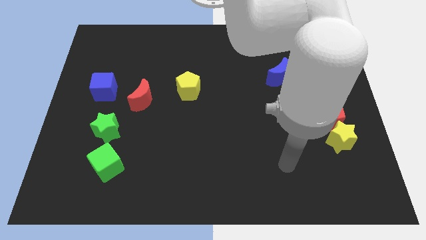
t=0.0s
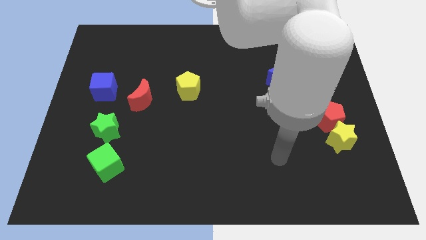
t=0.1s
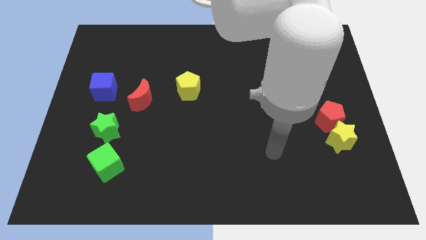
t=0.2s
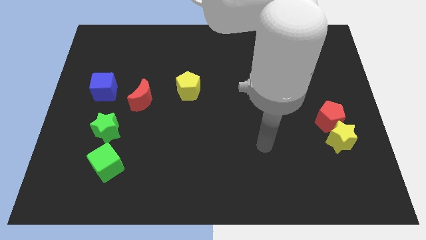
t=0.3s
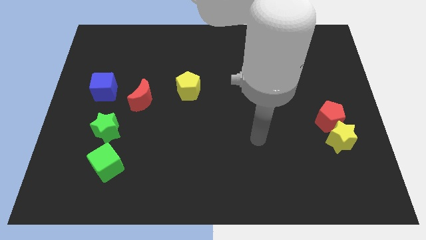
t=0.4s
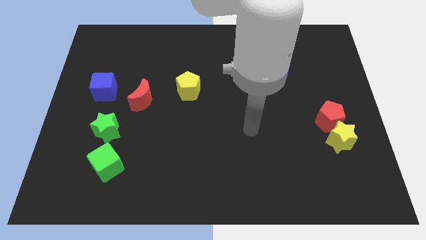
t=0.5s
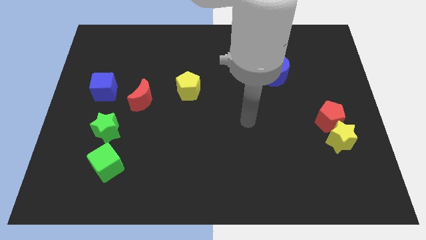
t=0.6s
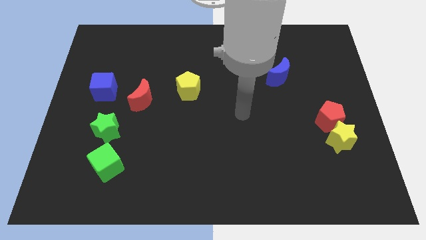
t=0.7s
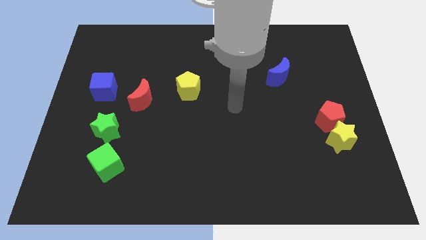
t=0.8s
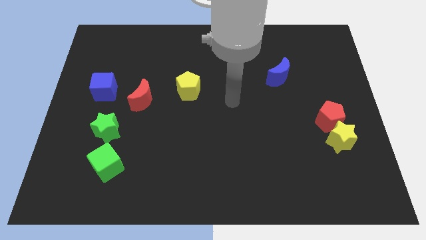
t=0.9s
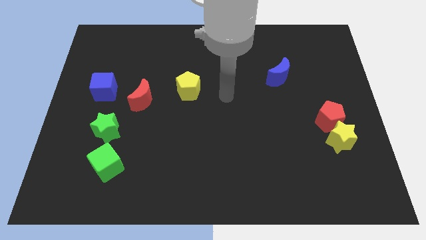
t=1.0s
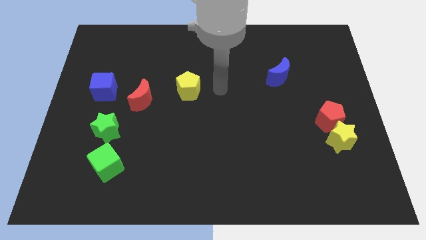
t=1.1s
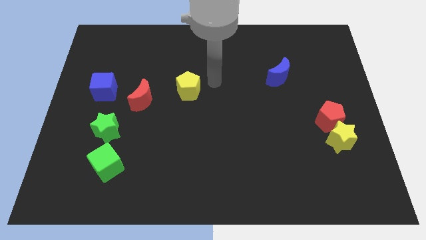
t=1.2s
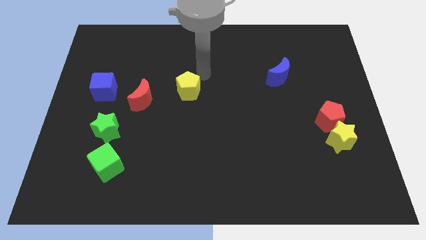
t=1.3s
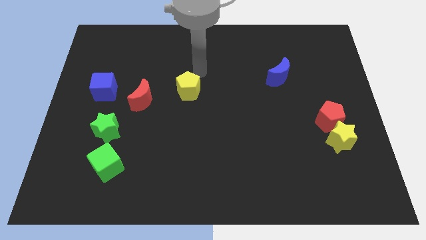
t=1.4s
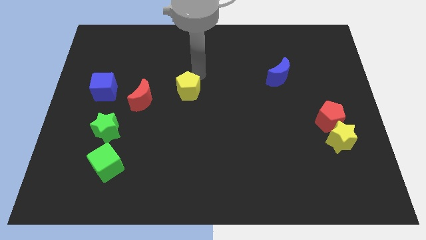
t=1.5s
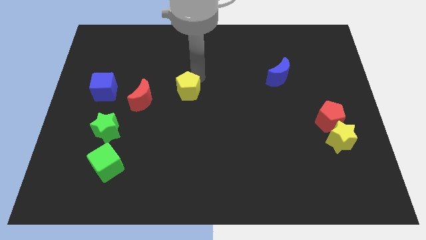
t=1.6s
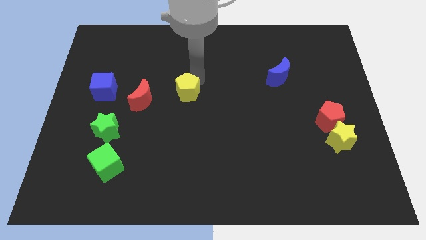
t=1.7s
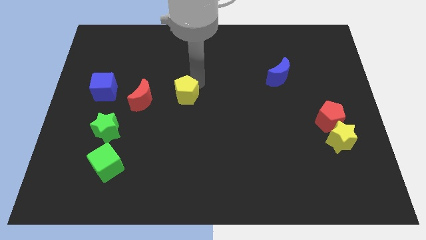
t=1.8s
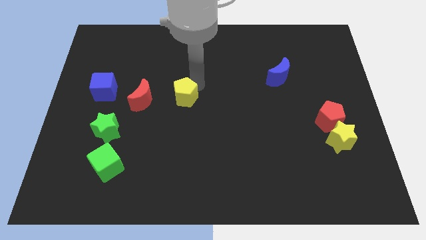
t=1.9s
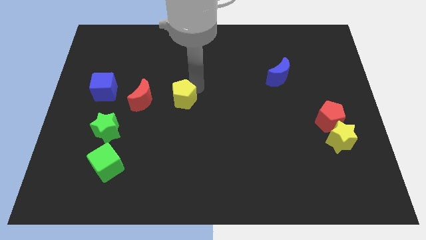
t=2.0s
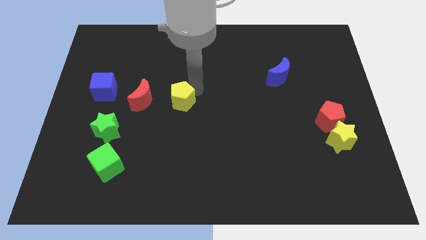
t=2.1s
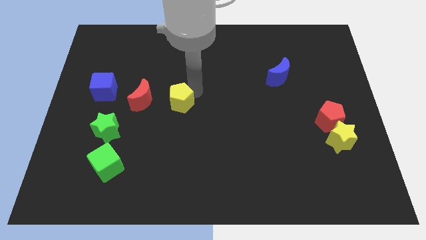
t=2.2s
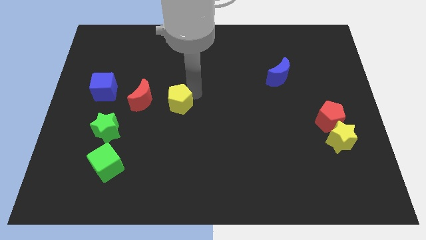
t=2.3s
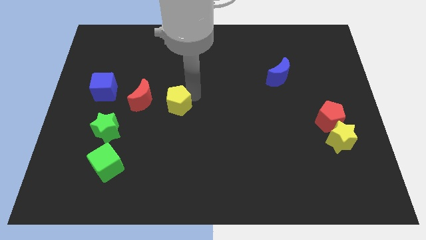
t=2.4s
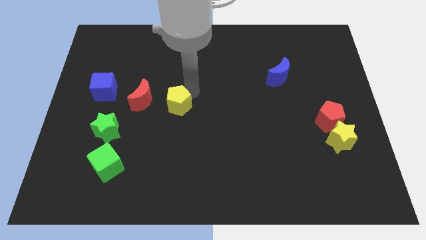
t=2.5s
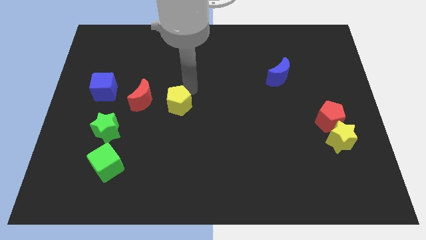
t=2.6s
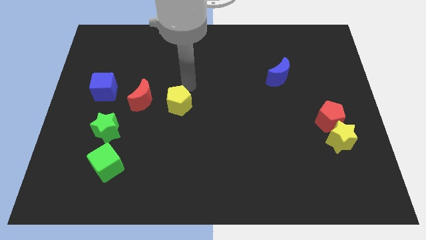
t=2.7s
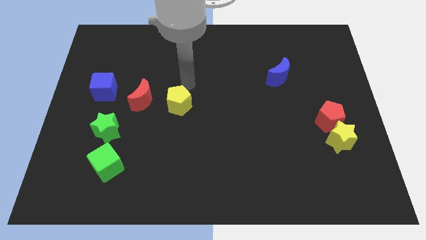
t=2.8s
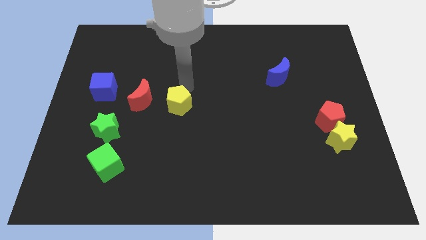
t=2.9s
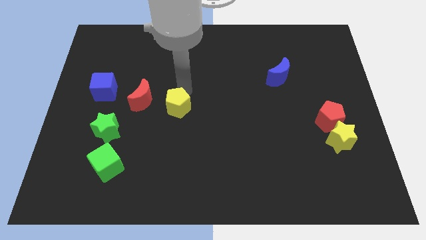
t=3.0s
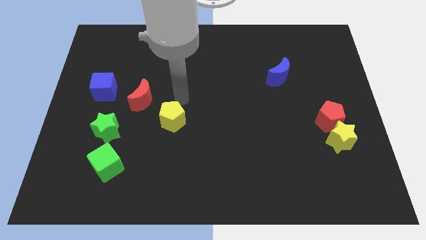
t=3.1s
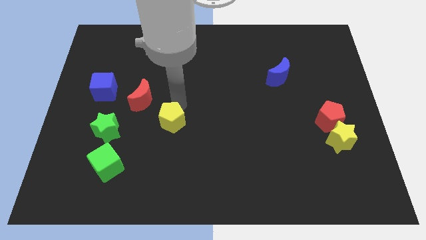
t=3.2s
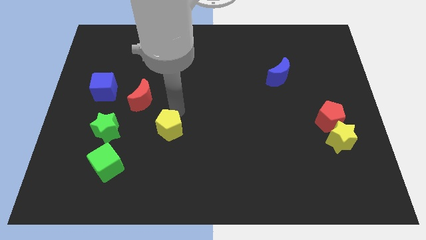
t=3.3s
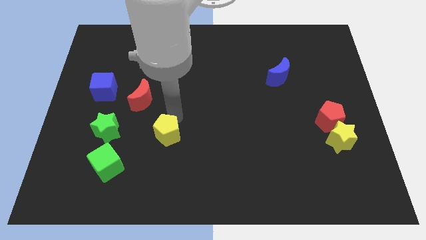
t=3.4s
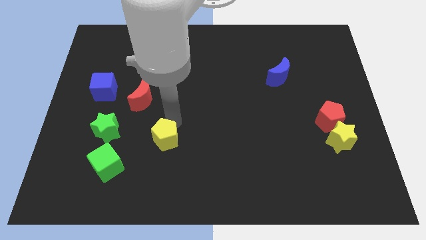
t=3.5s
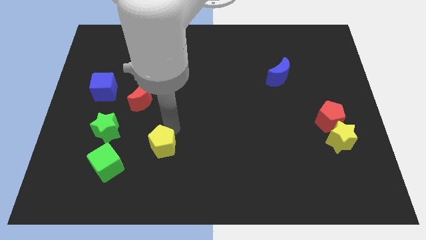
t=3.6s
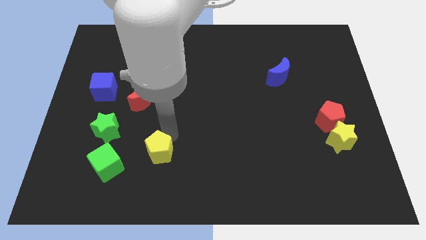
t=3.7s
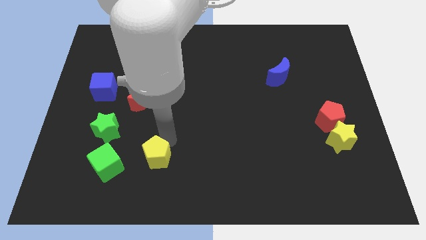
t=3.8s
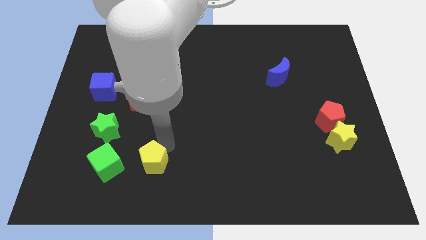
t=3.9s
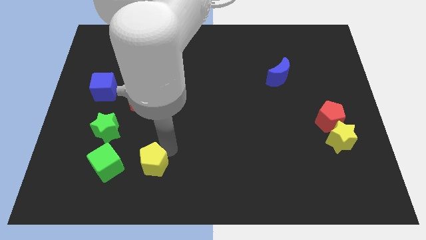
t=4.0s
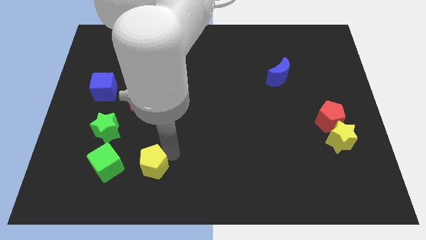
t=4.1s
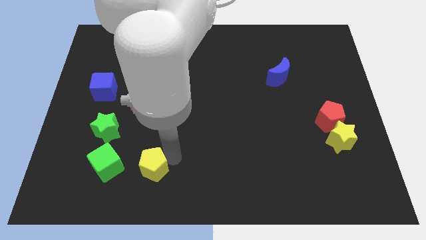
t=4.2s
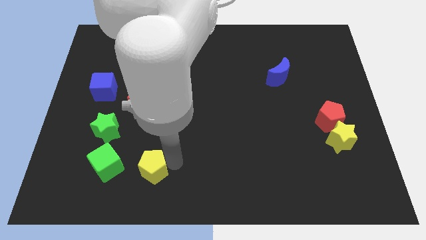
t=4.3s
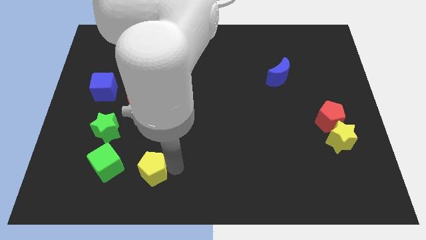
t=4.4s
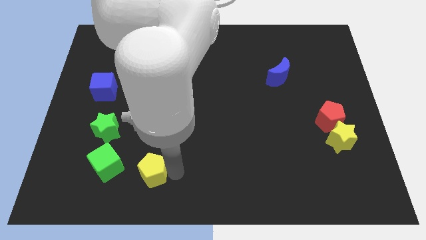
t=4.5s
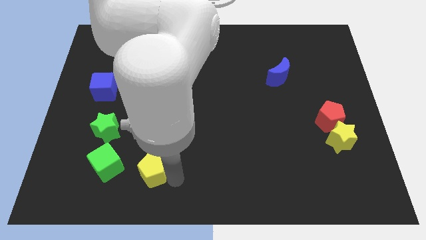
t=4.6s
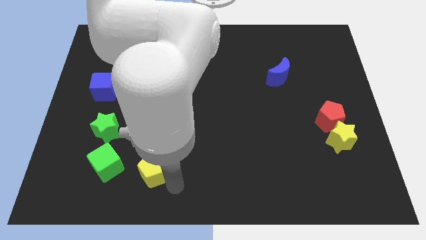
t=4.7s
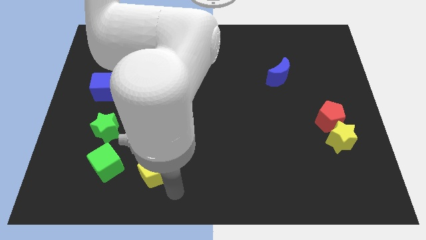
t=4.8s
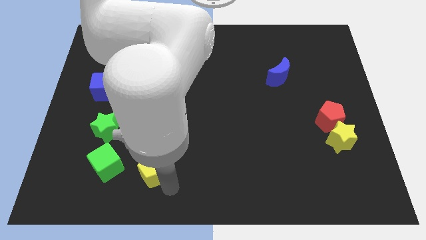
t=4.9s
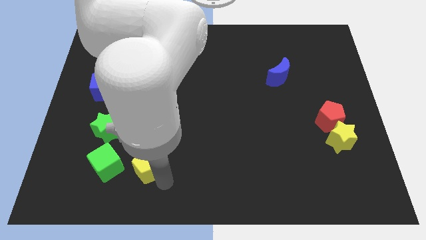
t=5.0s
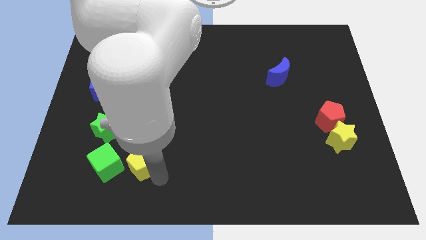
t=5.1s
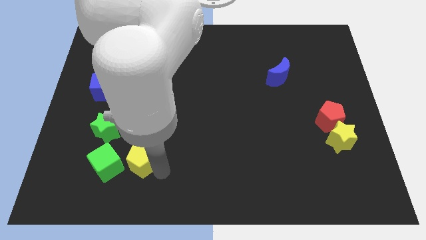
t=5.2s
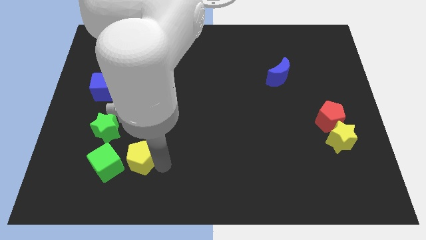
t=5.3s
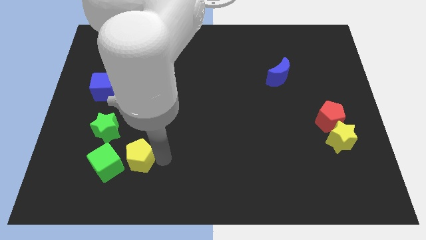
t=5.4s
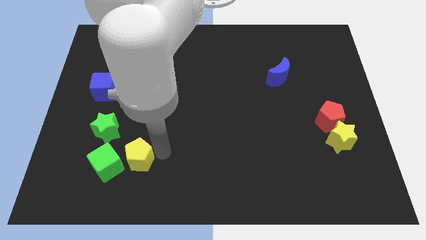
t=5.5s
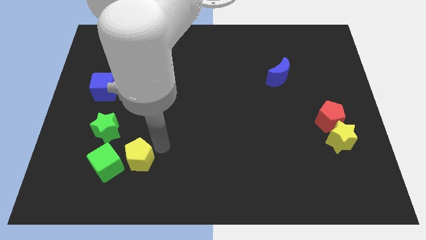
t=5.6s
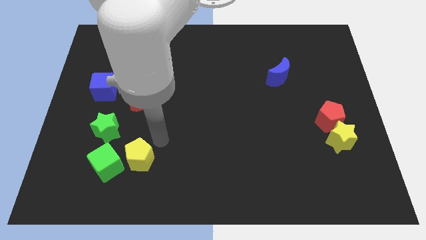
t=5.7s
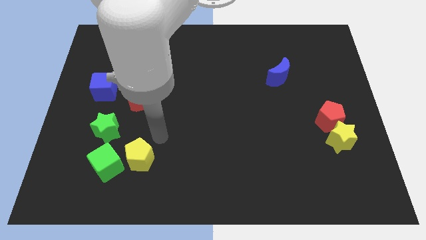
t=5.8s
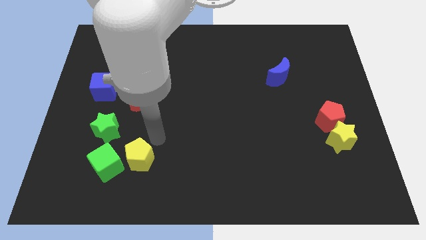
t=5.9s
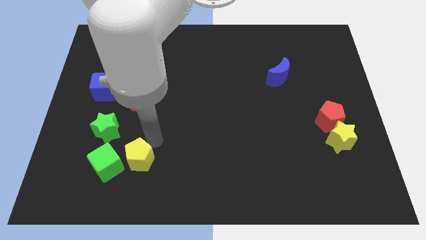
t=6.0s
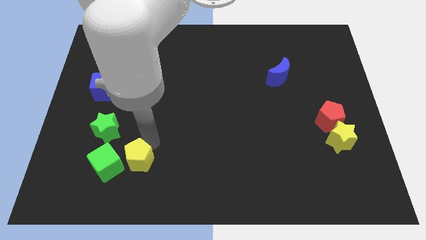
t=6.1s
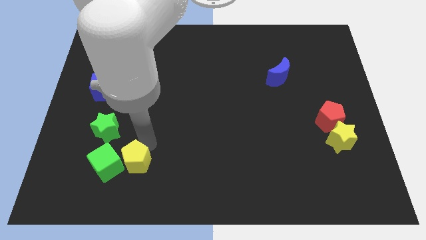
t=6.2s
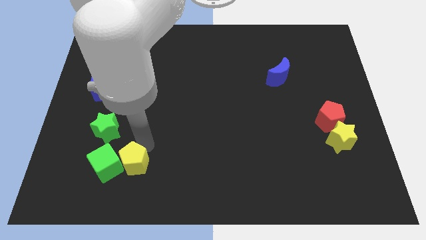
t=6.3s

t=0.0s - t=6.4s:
slide the yellow pentagon downwards and left diagonally

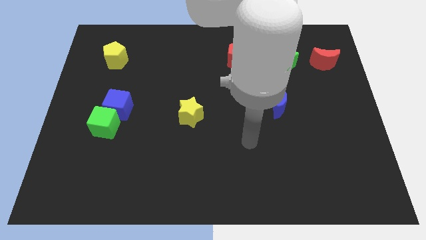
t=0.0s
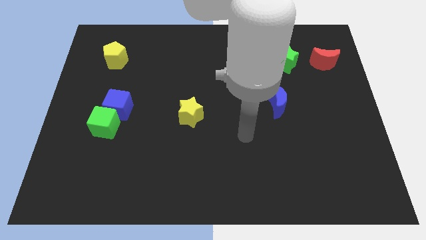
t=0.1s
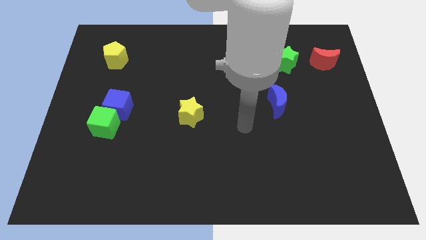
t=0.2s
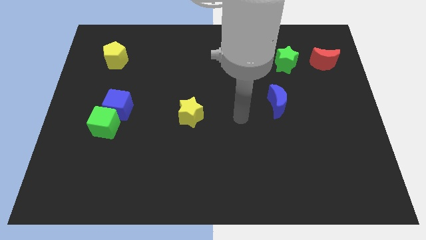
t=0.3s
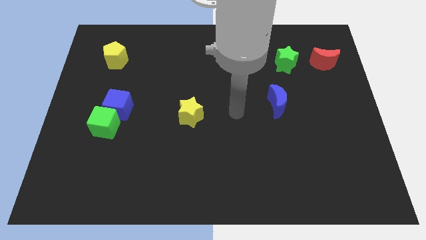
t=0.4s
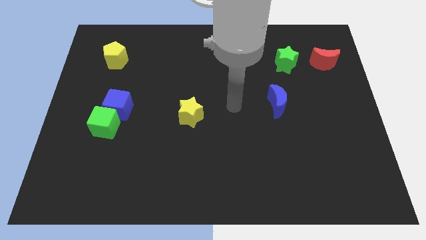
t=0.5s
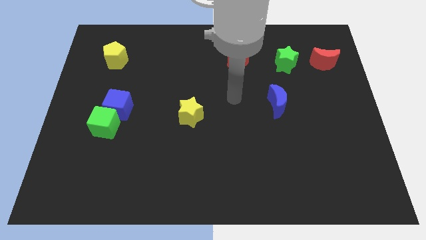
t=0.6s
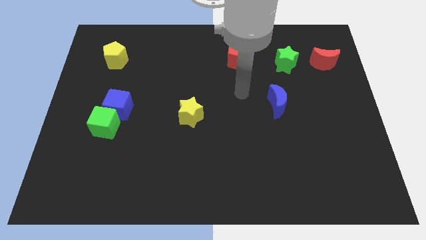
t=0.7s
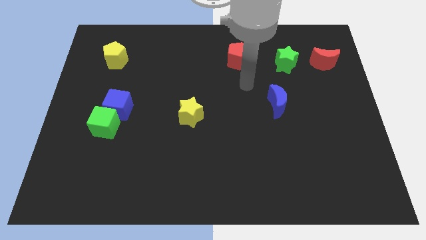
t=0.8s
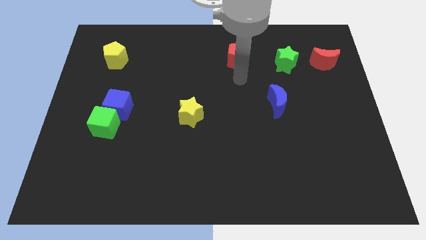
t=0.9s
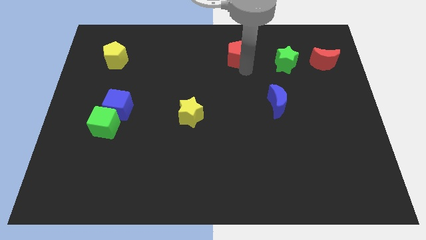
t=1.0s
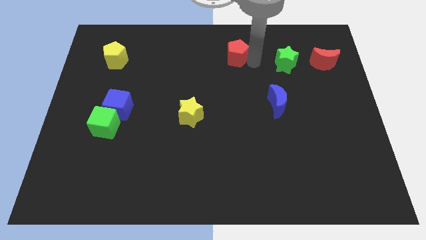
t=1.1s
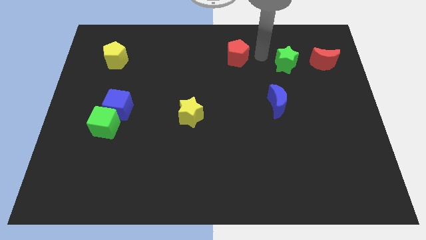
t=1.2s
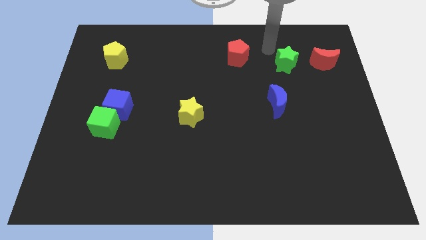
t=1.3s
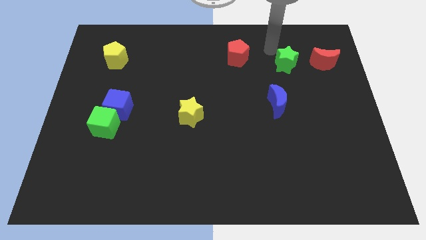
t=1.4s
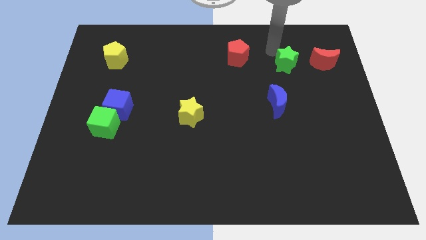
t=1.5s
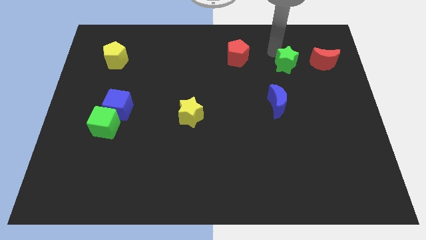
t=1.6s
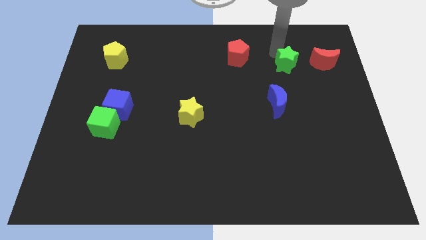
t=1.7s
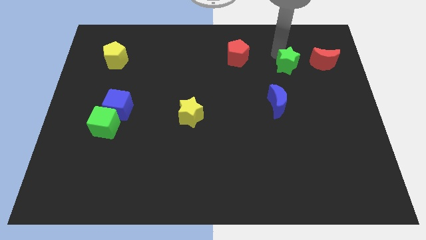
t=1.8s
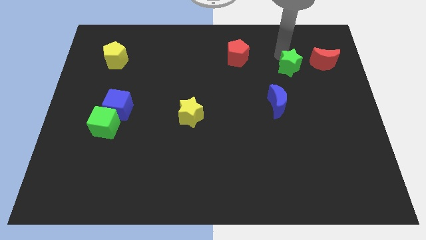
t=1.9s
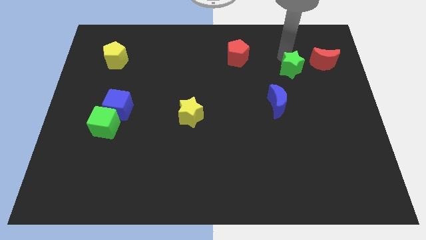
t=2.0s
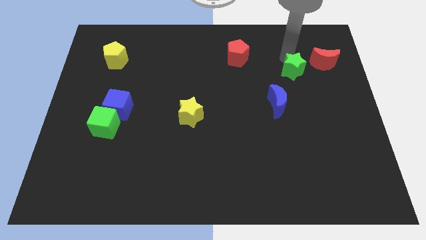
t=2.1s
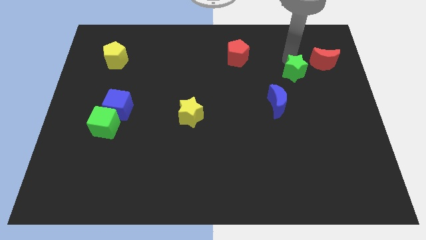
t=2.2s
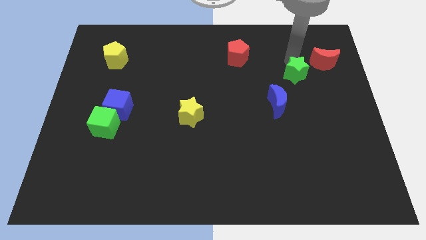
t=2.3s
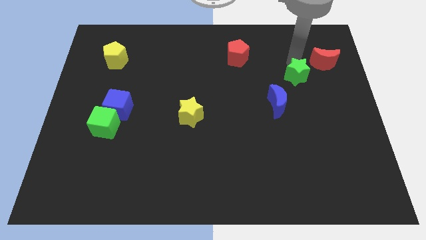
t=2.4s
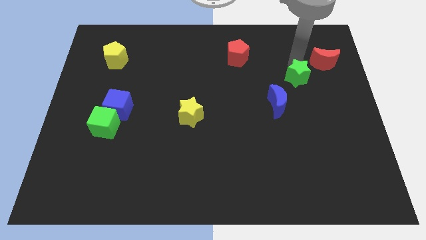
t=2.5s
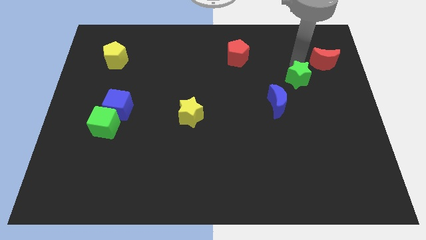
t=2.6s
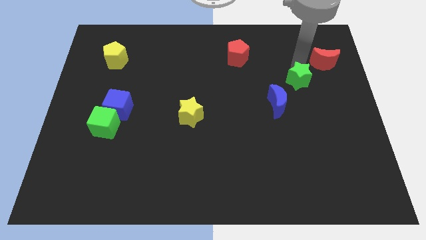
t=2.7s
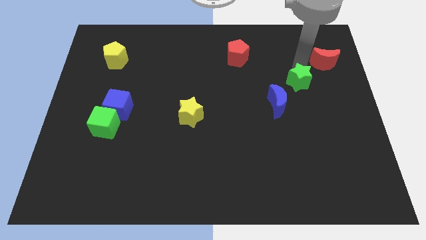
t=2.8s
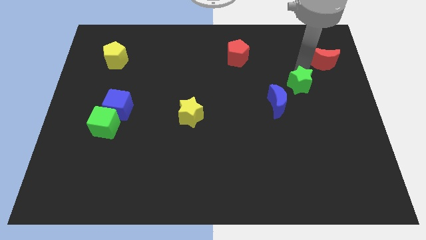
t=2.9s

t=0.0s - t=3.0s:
move the green star downwards somewhat
